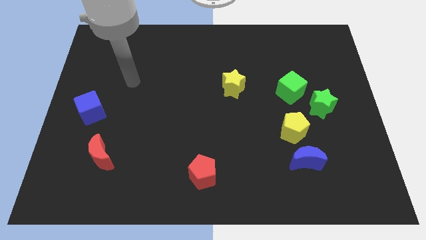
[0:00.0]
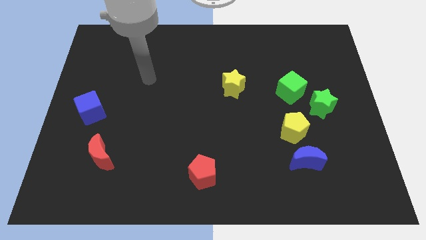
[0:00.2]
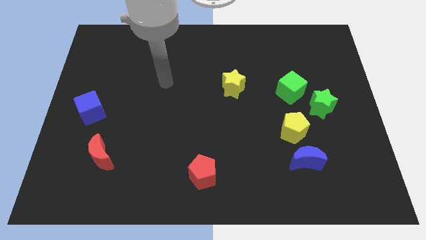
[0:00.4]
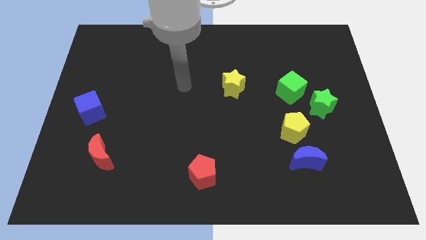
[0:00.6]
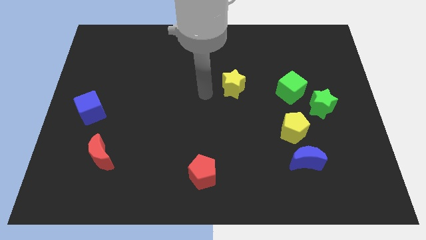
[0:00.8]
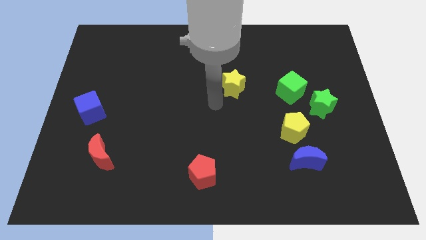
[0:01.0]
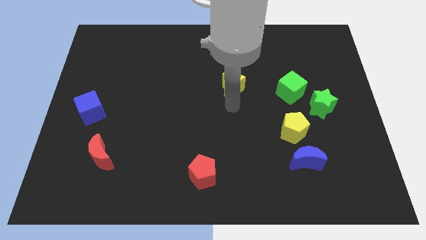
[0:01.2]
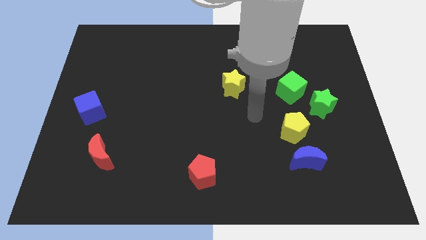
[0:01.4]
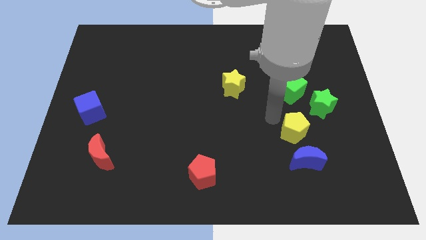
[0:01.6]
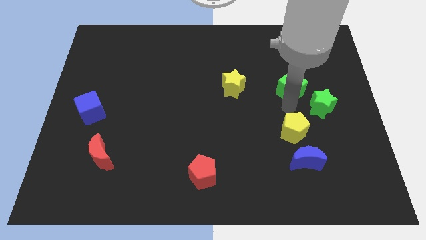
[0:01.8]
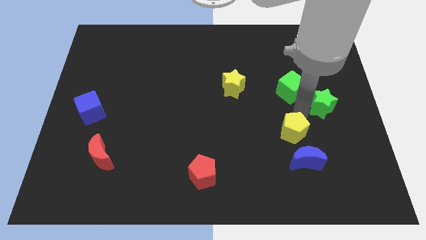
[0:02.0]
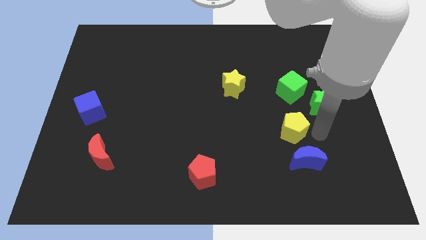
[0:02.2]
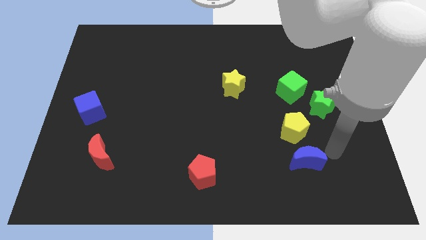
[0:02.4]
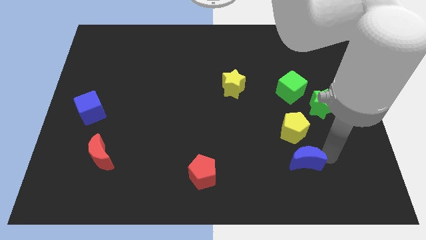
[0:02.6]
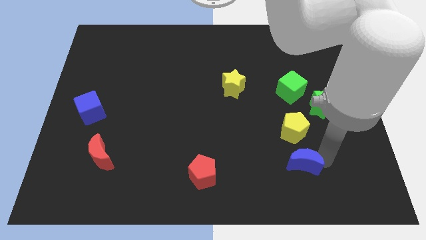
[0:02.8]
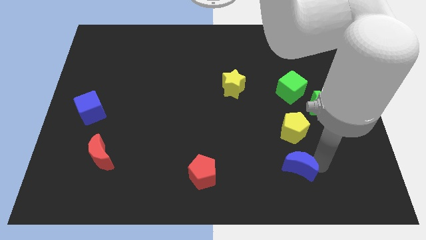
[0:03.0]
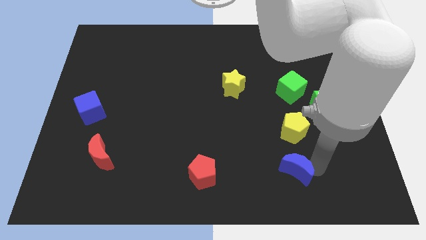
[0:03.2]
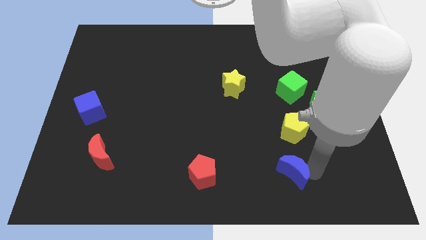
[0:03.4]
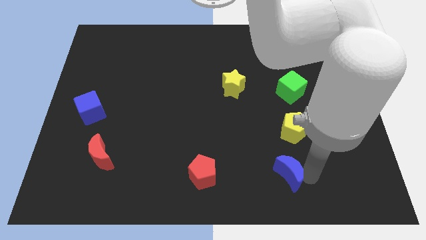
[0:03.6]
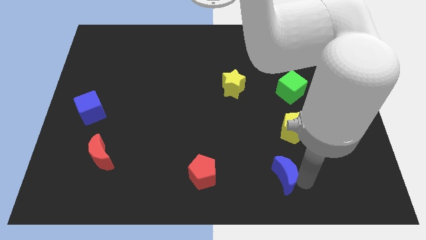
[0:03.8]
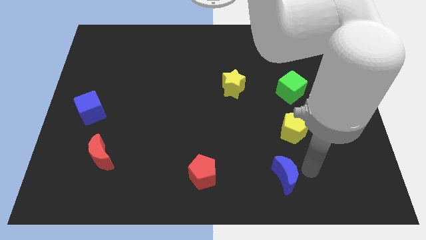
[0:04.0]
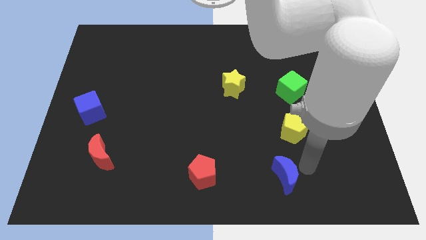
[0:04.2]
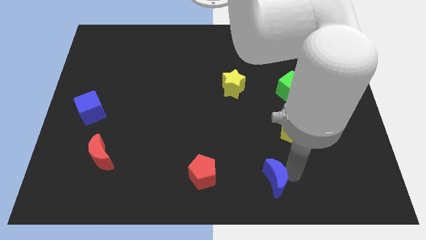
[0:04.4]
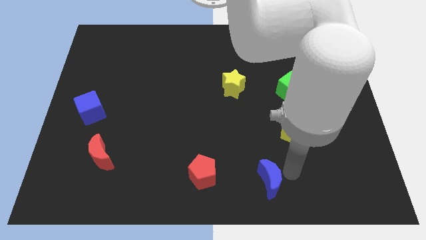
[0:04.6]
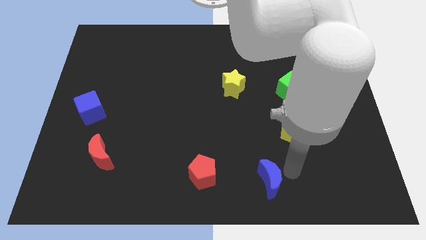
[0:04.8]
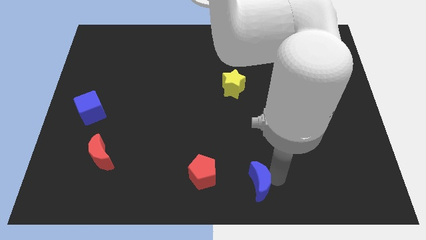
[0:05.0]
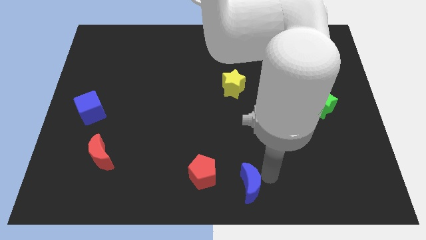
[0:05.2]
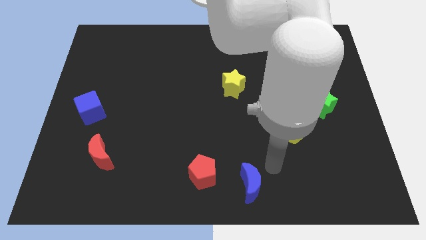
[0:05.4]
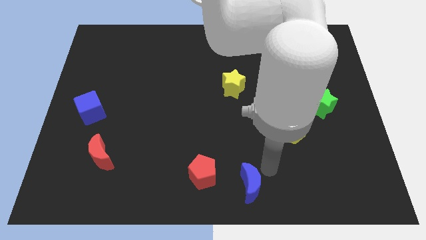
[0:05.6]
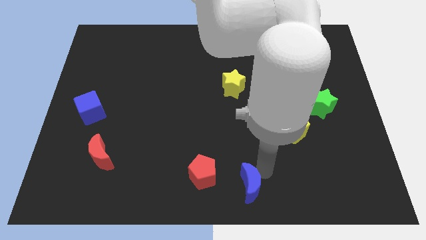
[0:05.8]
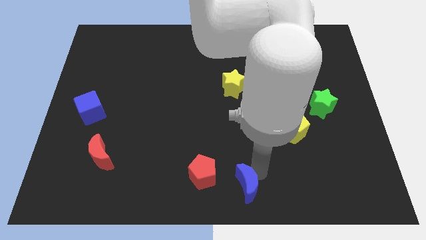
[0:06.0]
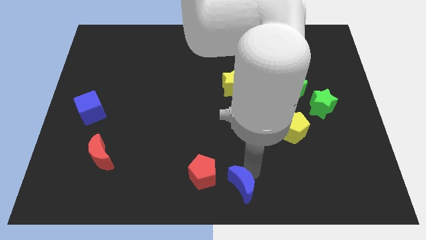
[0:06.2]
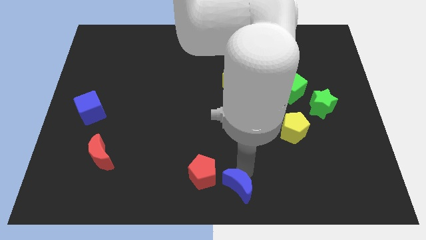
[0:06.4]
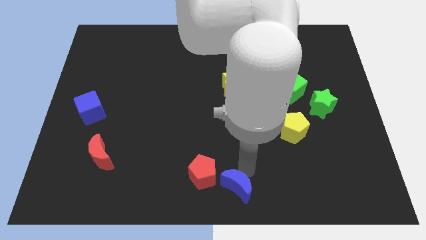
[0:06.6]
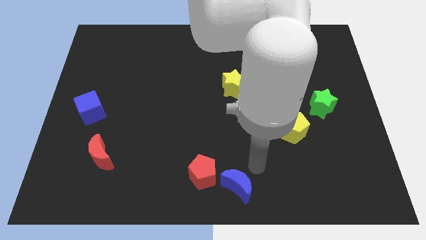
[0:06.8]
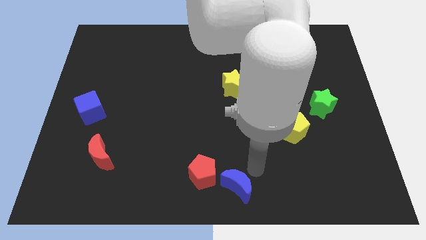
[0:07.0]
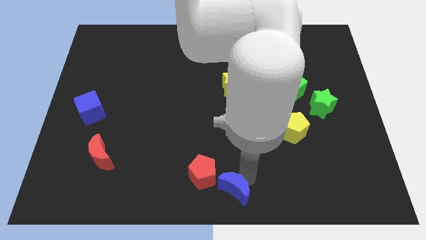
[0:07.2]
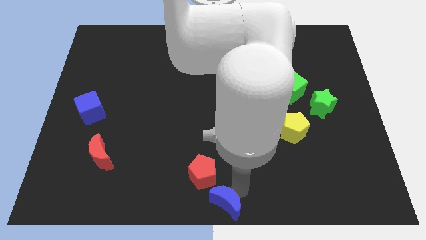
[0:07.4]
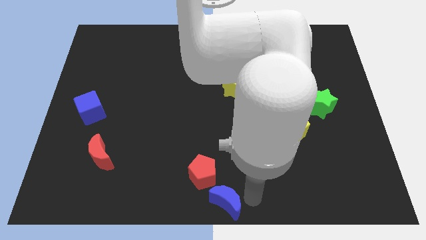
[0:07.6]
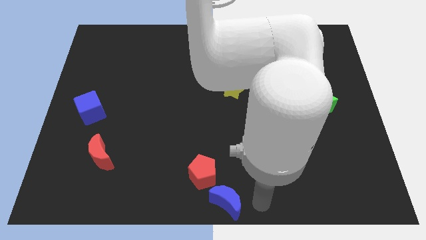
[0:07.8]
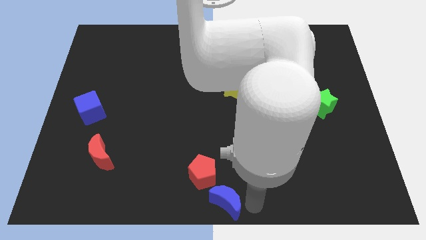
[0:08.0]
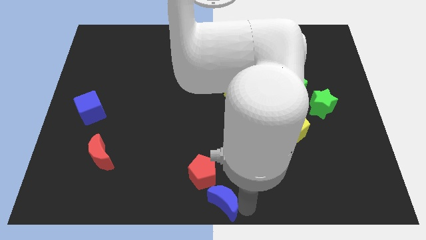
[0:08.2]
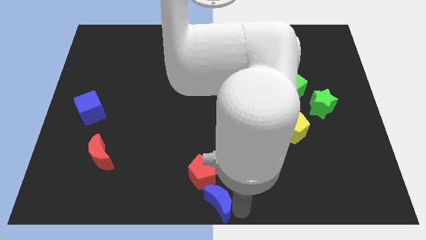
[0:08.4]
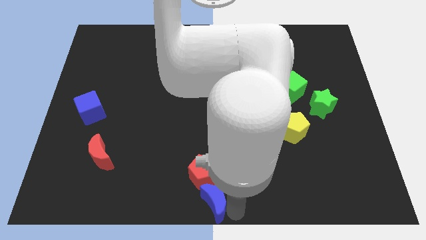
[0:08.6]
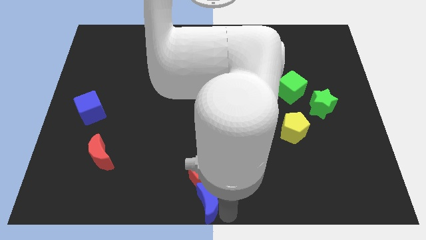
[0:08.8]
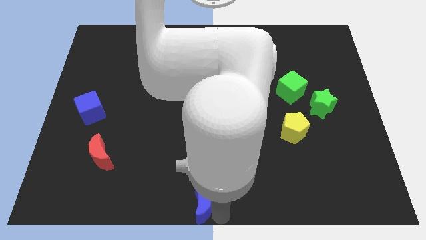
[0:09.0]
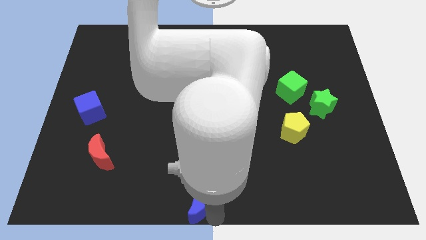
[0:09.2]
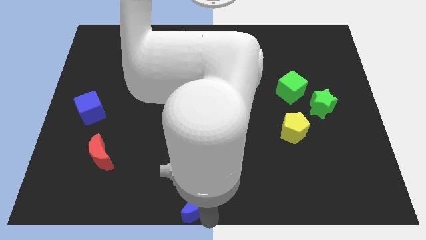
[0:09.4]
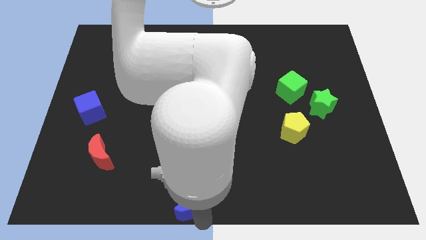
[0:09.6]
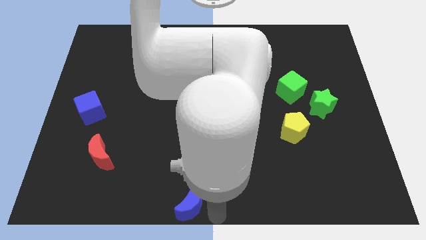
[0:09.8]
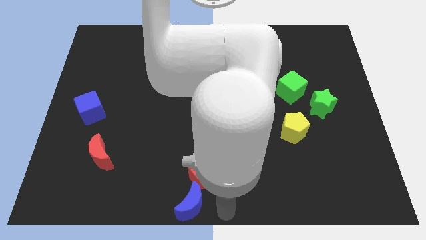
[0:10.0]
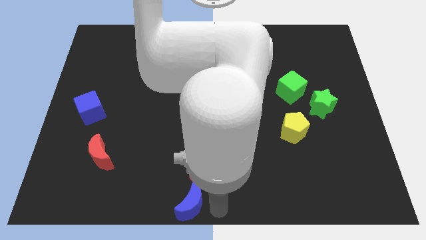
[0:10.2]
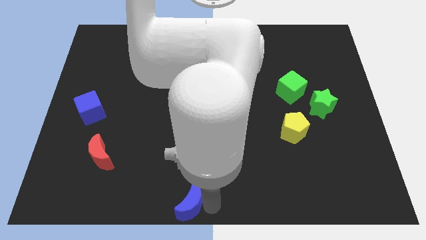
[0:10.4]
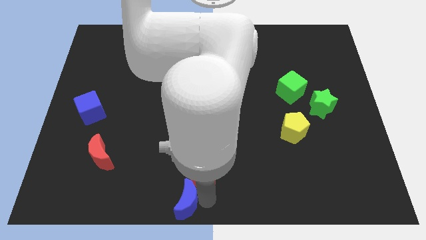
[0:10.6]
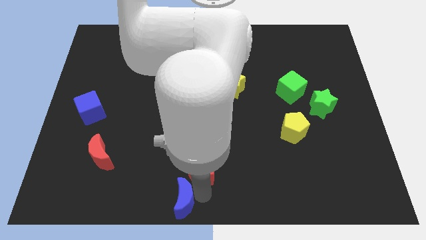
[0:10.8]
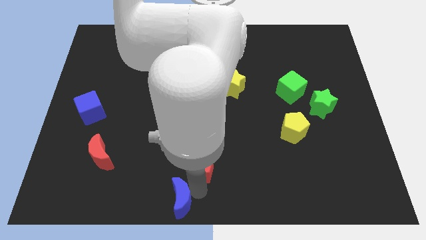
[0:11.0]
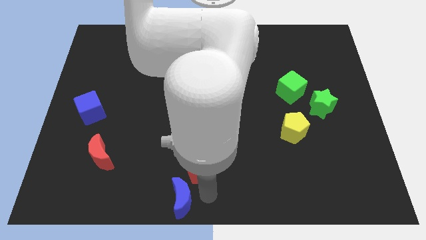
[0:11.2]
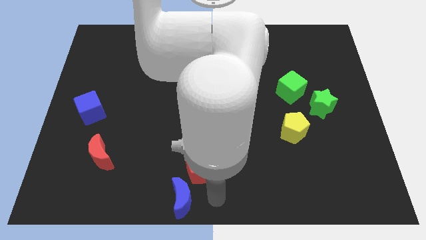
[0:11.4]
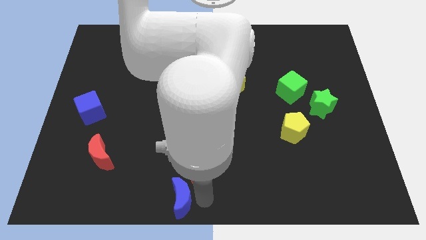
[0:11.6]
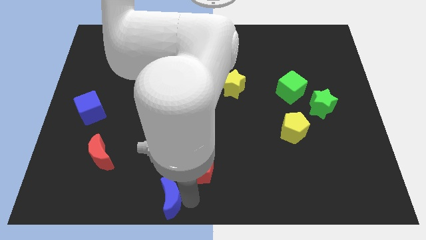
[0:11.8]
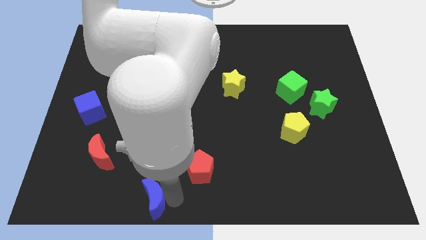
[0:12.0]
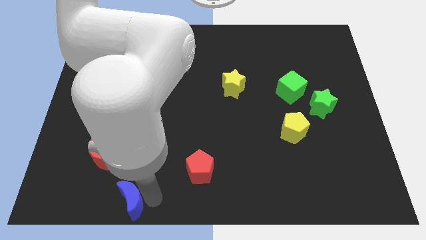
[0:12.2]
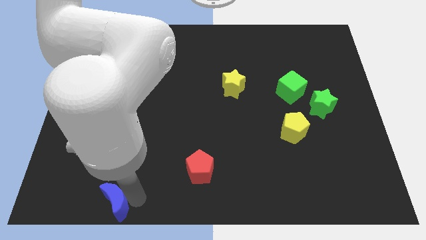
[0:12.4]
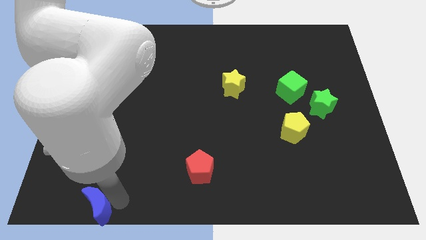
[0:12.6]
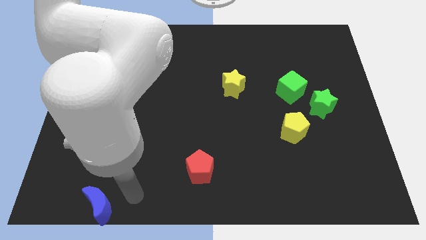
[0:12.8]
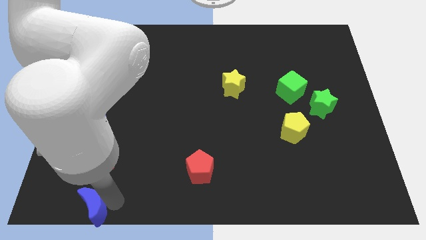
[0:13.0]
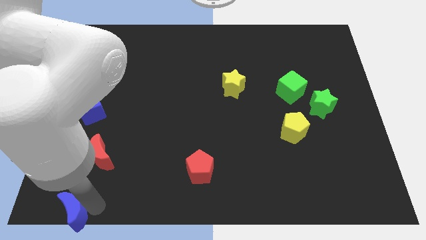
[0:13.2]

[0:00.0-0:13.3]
move the blue moon to the bottom left
